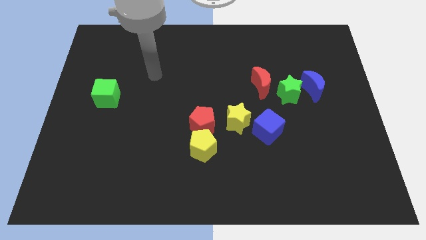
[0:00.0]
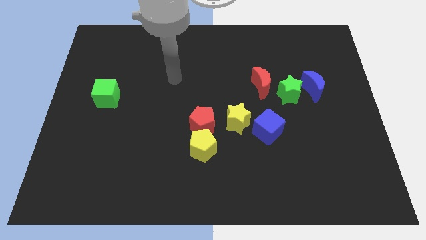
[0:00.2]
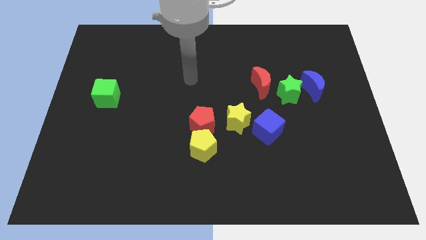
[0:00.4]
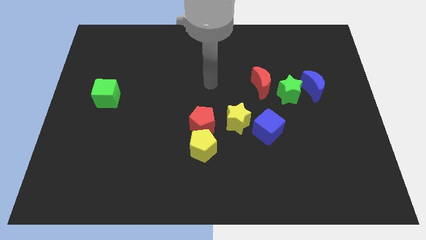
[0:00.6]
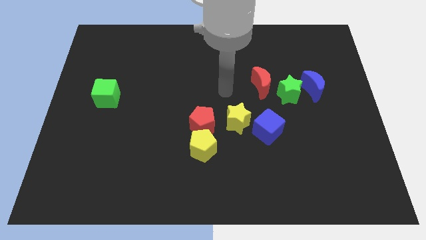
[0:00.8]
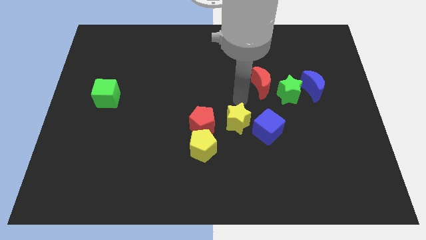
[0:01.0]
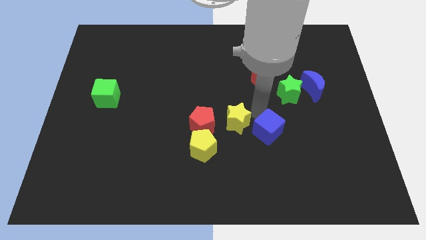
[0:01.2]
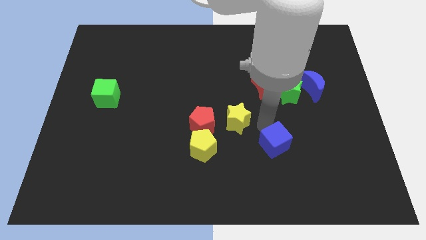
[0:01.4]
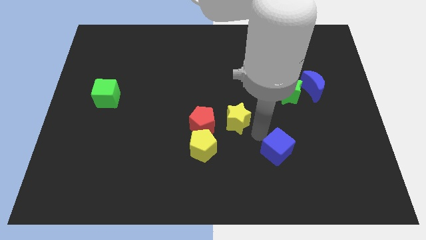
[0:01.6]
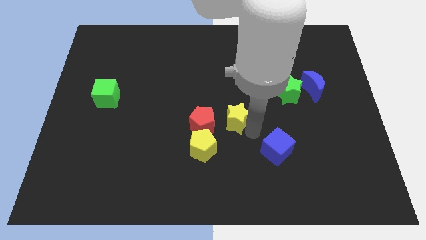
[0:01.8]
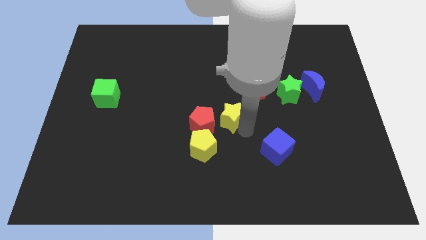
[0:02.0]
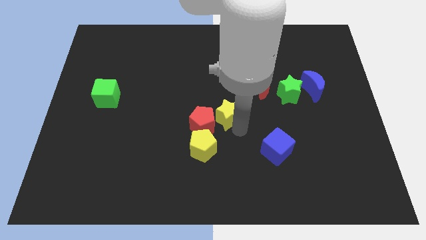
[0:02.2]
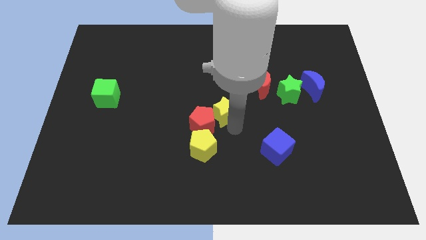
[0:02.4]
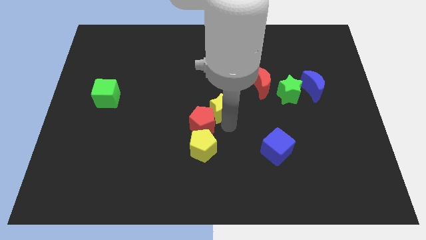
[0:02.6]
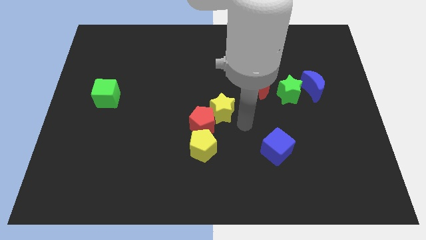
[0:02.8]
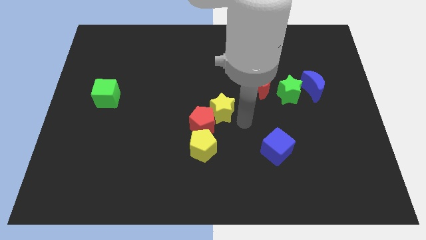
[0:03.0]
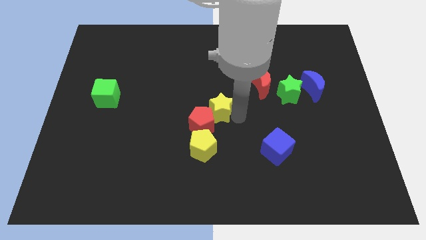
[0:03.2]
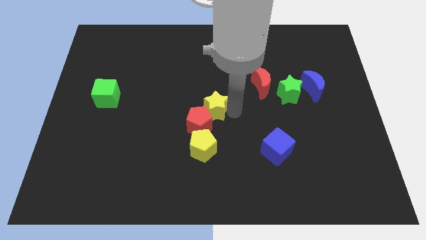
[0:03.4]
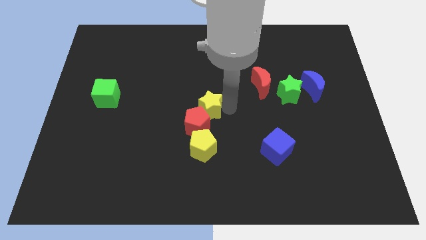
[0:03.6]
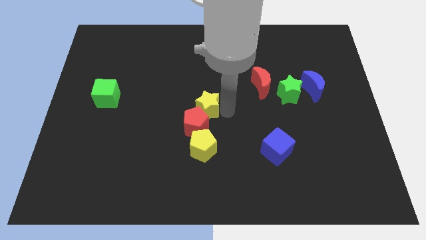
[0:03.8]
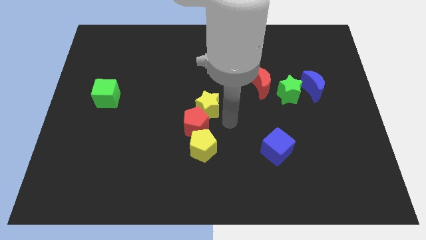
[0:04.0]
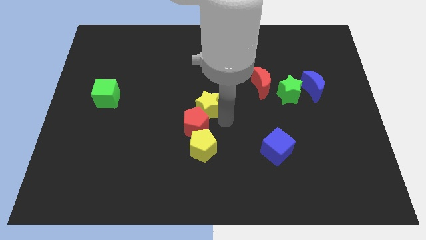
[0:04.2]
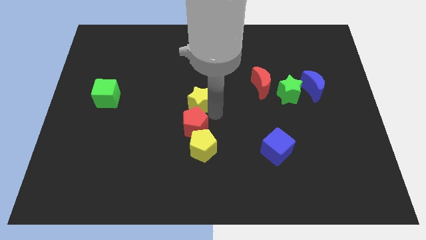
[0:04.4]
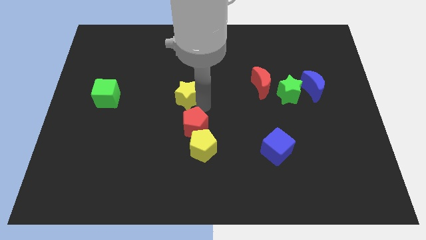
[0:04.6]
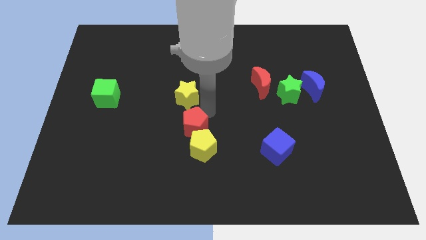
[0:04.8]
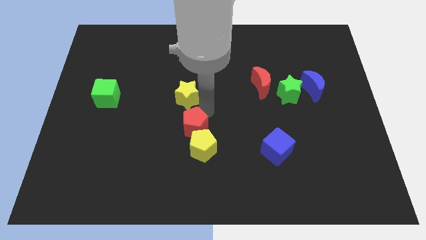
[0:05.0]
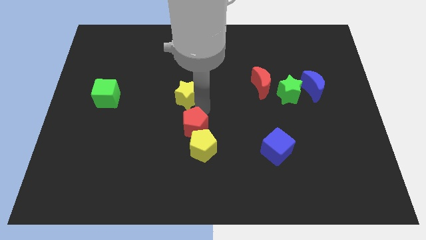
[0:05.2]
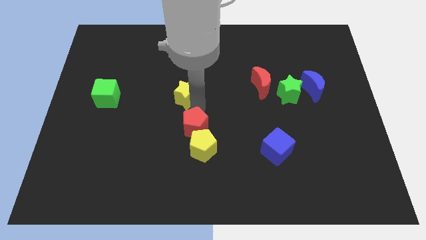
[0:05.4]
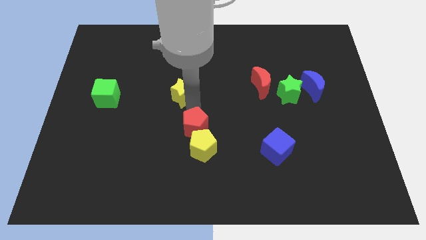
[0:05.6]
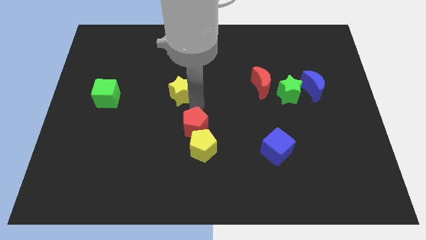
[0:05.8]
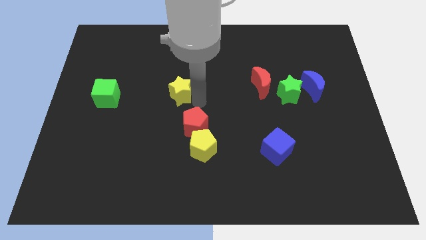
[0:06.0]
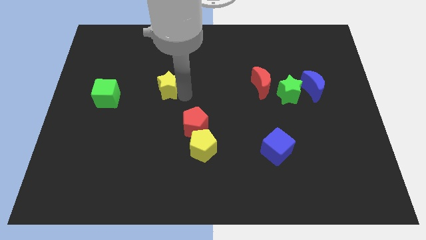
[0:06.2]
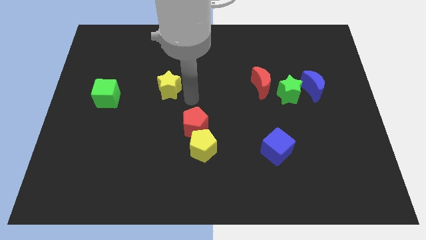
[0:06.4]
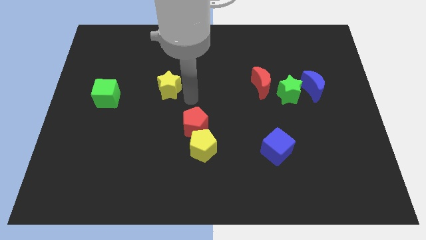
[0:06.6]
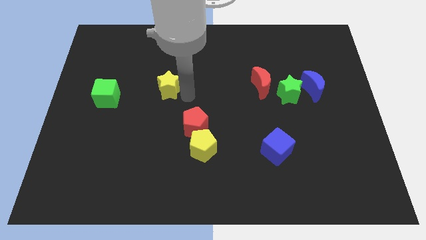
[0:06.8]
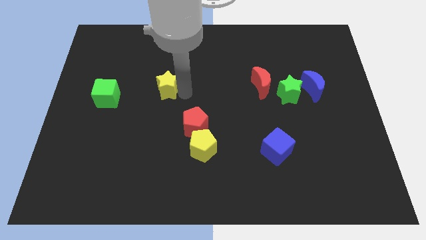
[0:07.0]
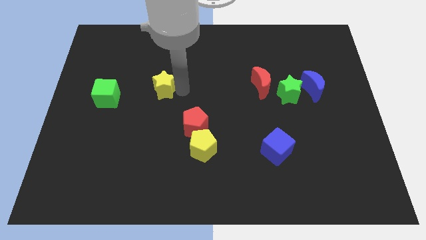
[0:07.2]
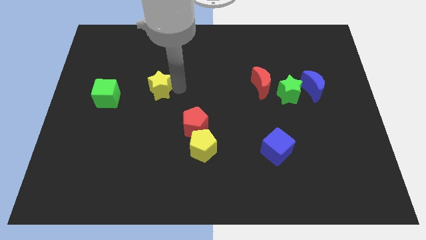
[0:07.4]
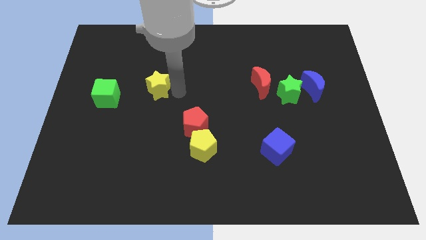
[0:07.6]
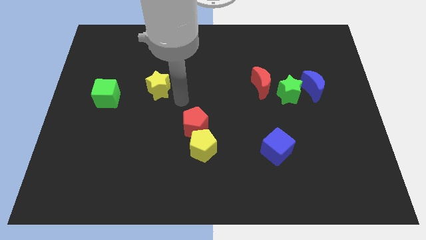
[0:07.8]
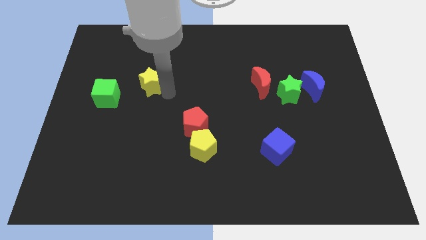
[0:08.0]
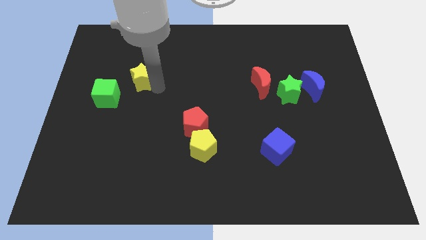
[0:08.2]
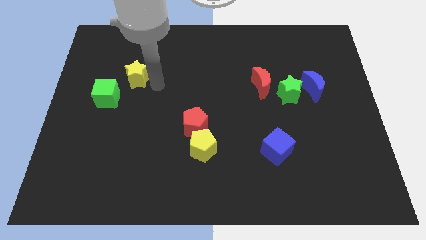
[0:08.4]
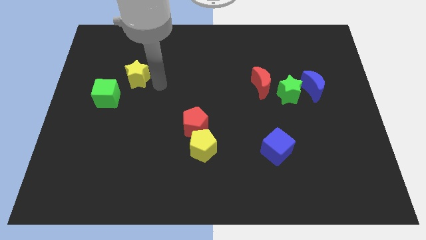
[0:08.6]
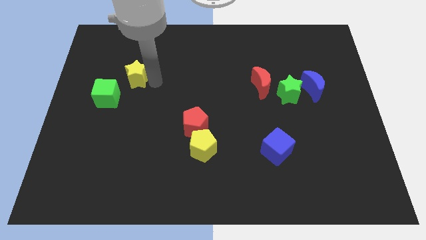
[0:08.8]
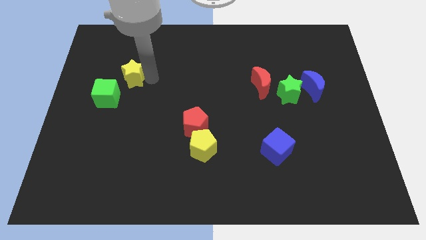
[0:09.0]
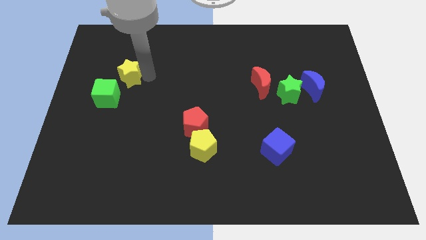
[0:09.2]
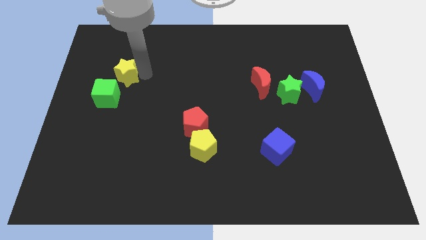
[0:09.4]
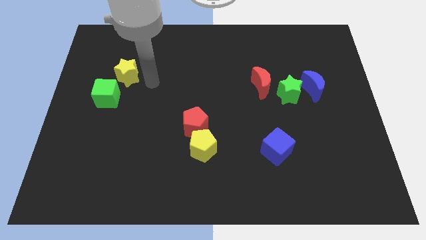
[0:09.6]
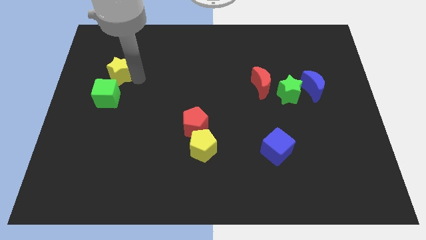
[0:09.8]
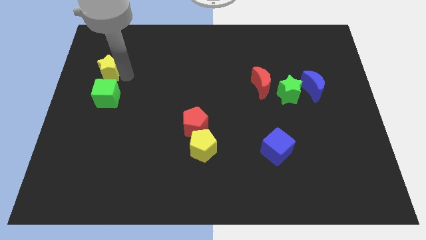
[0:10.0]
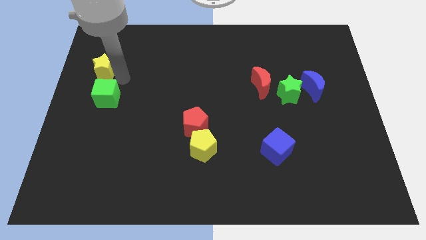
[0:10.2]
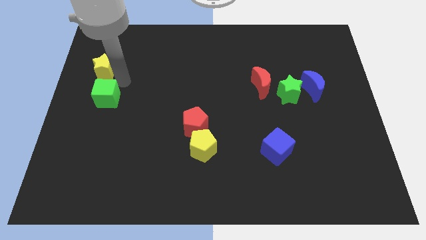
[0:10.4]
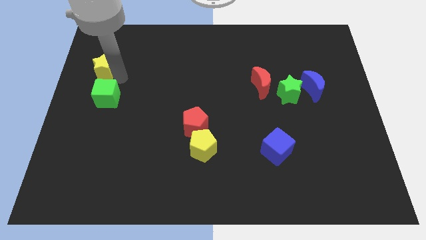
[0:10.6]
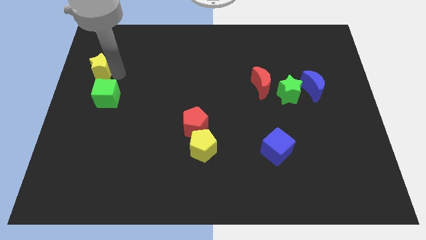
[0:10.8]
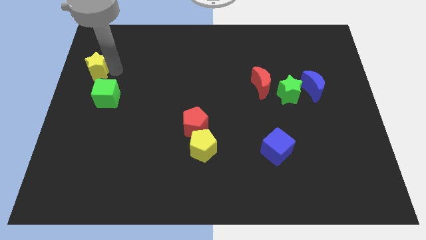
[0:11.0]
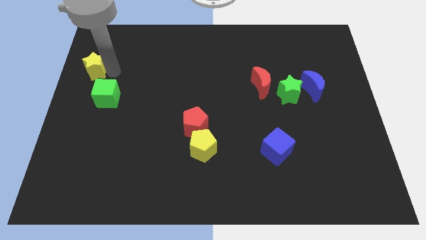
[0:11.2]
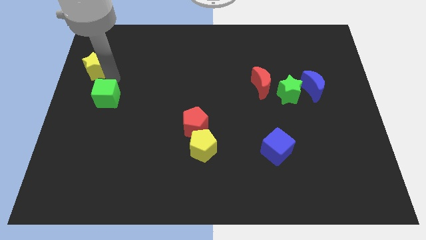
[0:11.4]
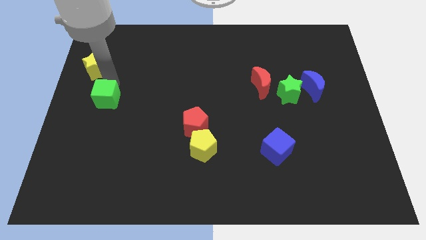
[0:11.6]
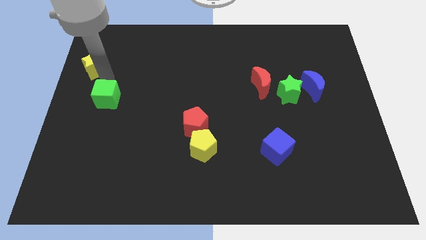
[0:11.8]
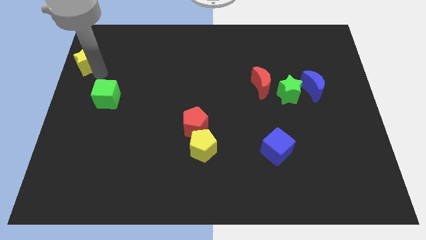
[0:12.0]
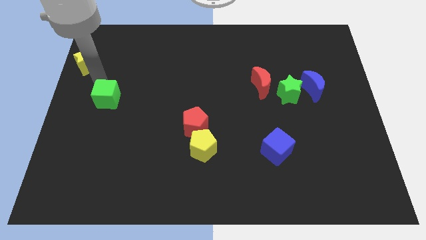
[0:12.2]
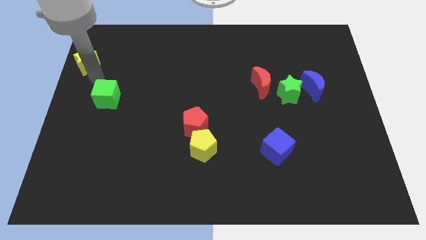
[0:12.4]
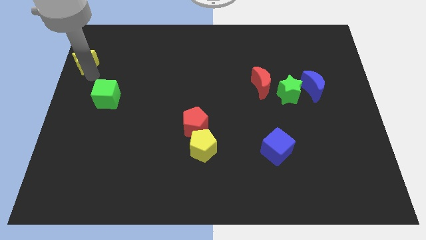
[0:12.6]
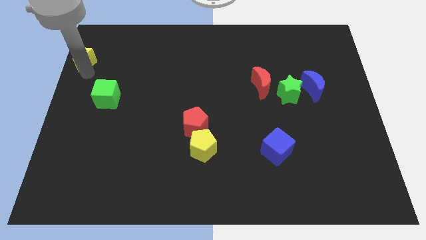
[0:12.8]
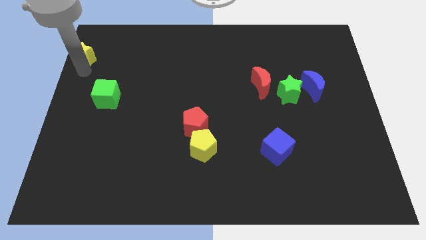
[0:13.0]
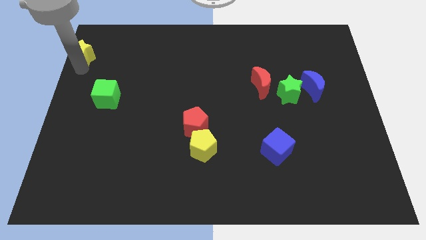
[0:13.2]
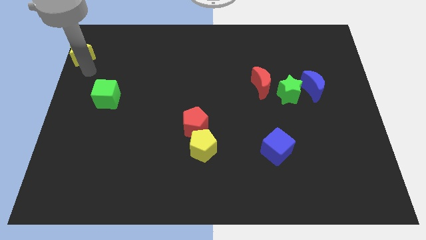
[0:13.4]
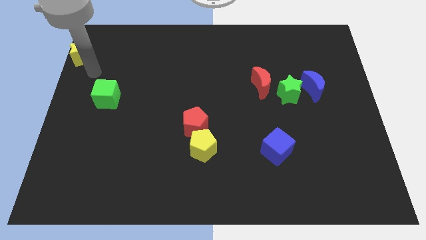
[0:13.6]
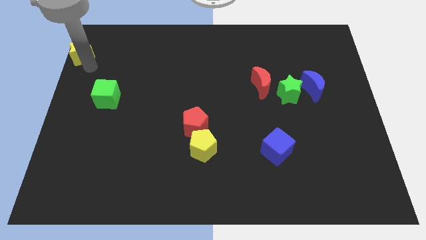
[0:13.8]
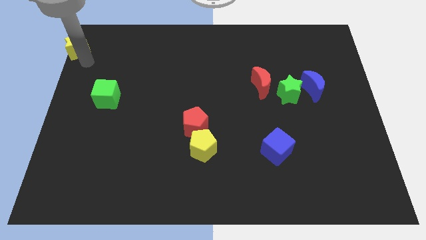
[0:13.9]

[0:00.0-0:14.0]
slide the yellow star to the upper left corner

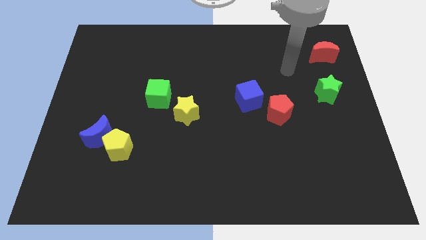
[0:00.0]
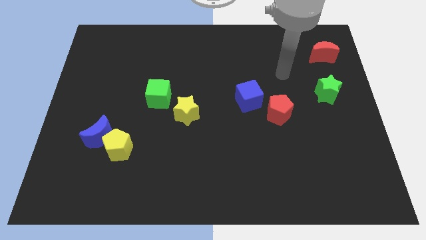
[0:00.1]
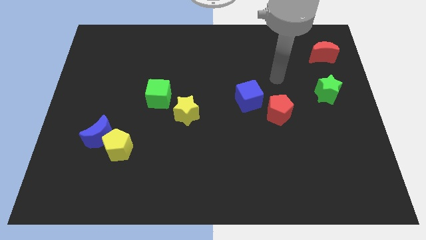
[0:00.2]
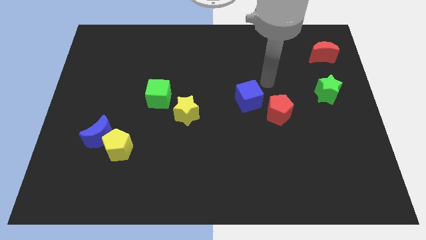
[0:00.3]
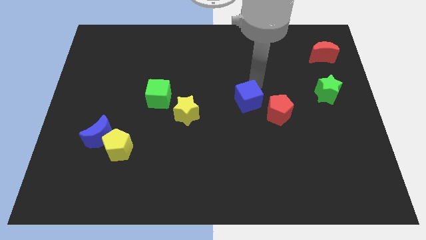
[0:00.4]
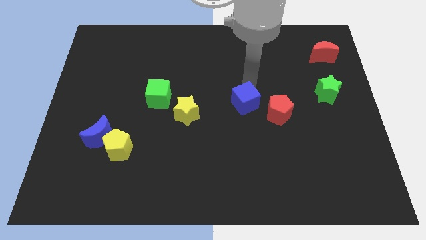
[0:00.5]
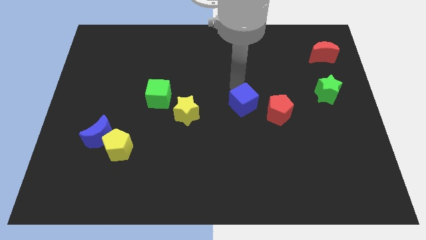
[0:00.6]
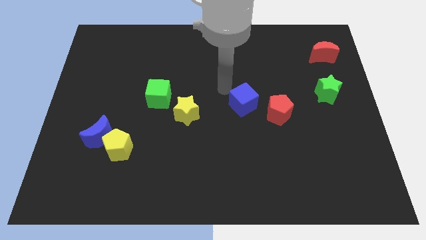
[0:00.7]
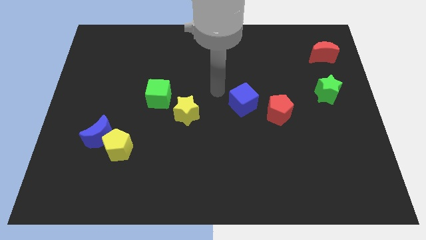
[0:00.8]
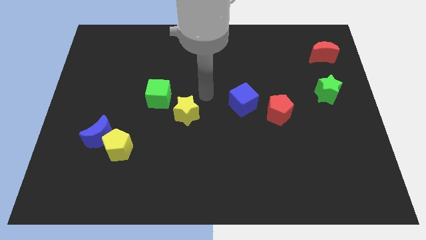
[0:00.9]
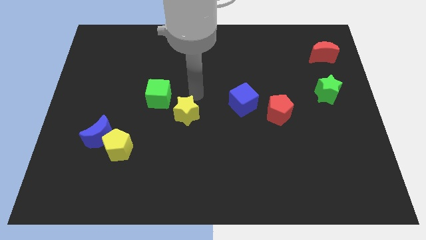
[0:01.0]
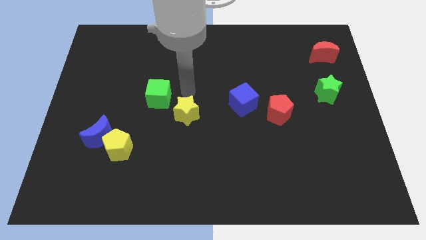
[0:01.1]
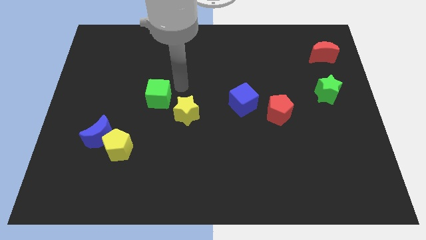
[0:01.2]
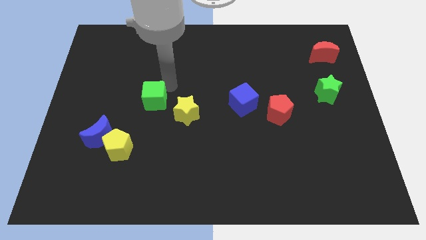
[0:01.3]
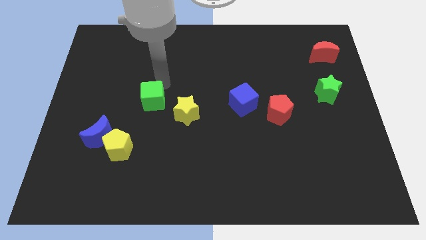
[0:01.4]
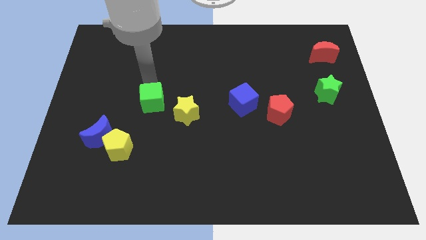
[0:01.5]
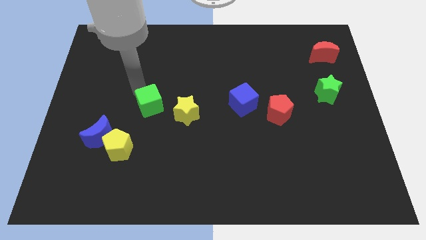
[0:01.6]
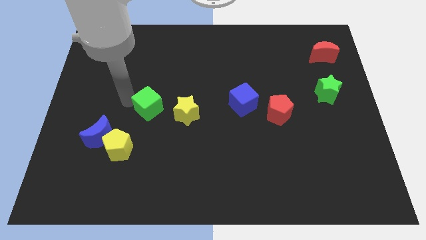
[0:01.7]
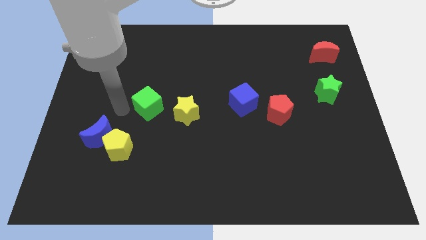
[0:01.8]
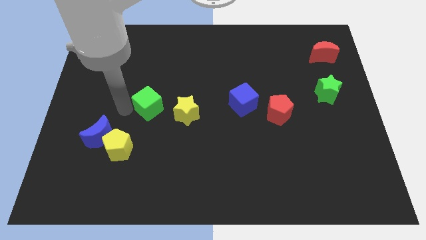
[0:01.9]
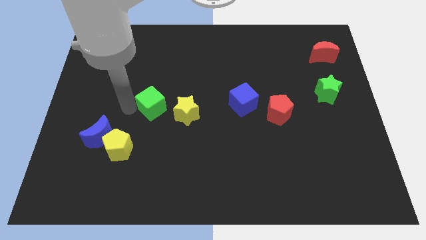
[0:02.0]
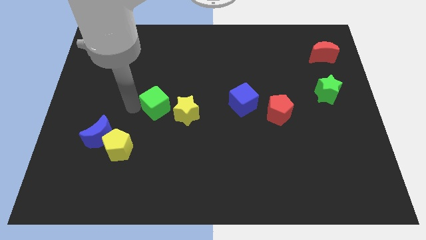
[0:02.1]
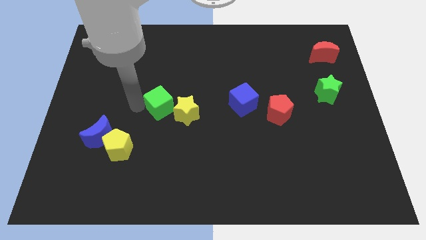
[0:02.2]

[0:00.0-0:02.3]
push the green cube to the middle of the board
